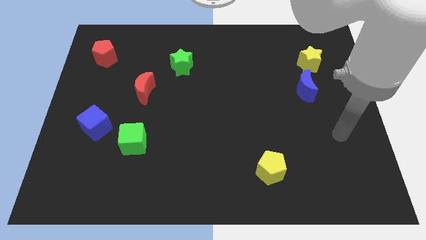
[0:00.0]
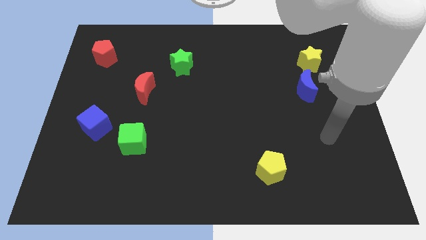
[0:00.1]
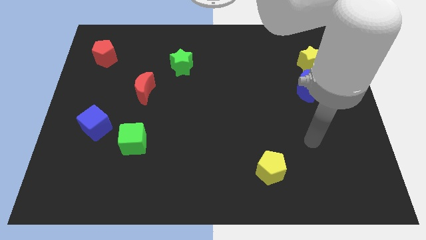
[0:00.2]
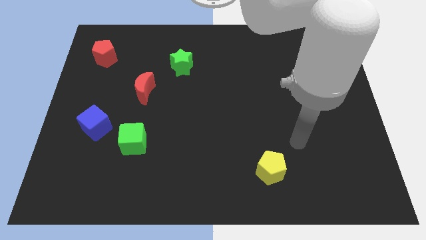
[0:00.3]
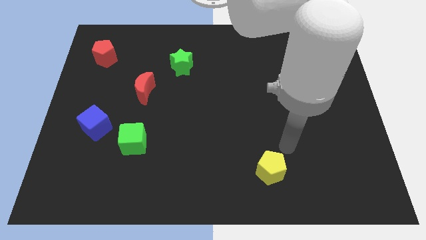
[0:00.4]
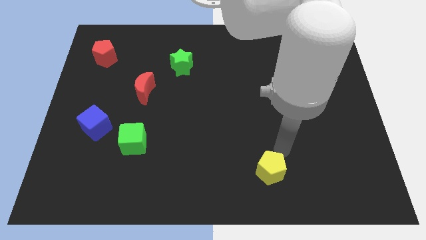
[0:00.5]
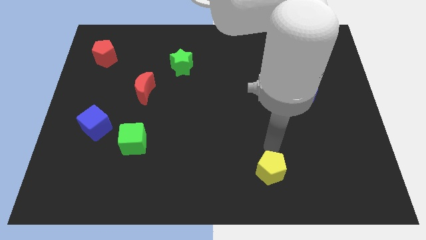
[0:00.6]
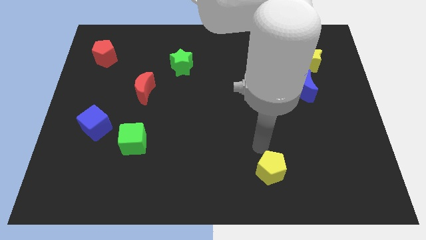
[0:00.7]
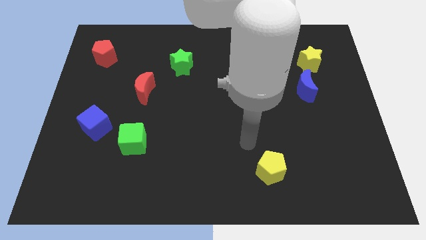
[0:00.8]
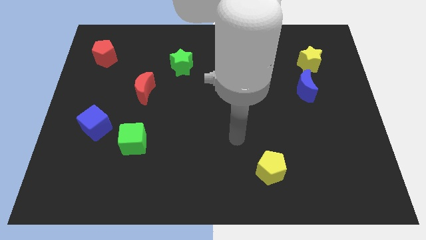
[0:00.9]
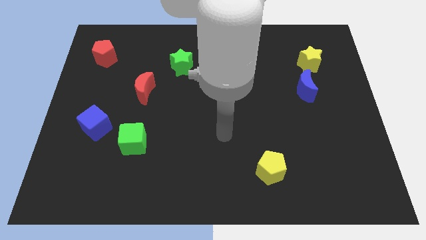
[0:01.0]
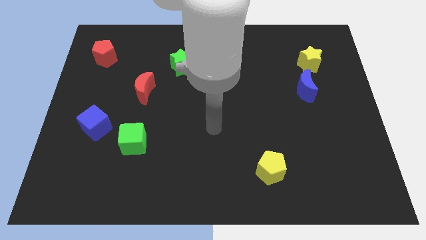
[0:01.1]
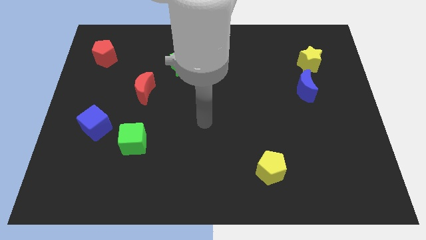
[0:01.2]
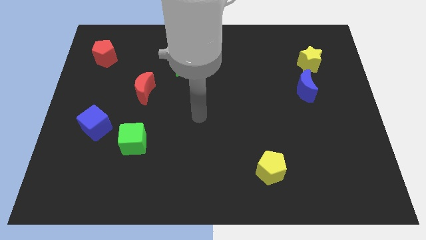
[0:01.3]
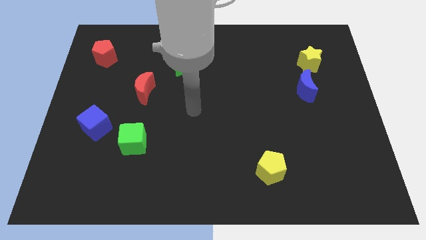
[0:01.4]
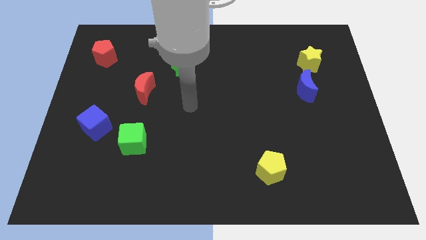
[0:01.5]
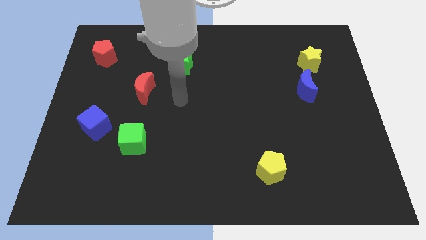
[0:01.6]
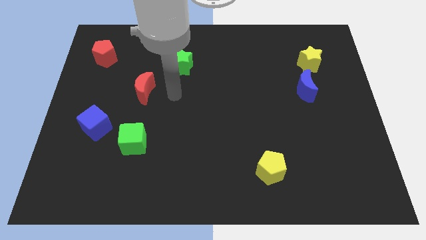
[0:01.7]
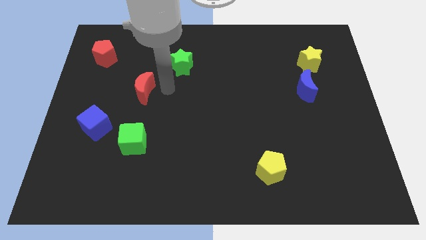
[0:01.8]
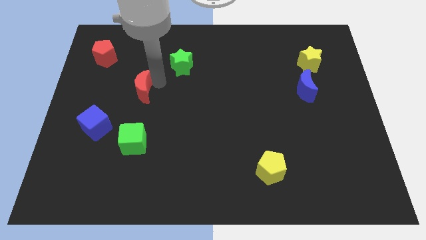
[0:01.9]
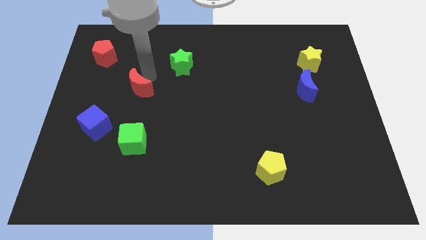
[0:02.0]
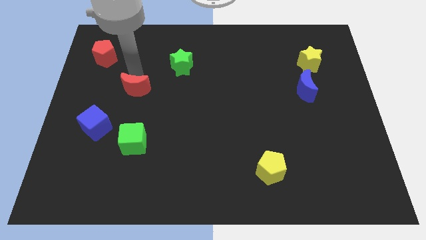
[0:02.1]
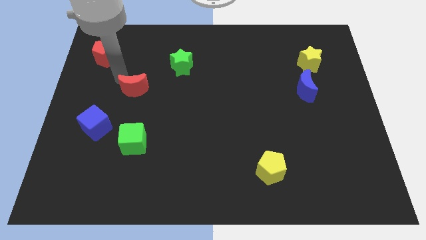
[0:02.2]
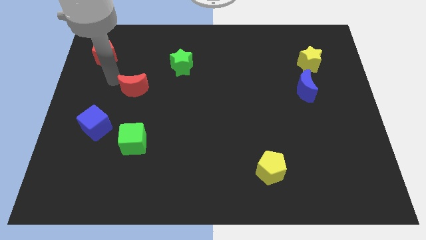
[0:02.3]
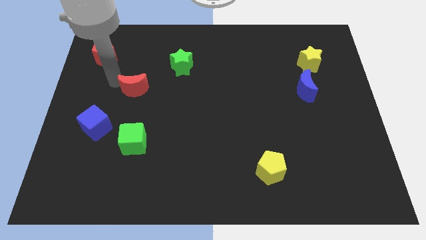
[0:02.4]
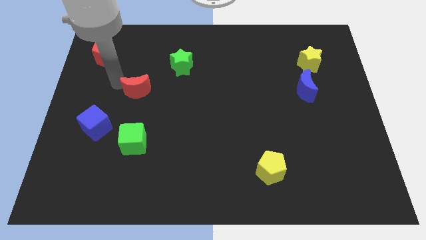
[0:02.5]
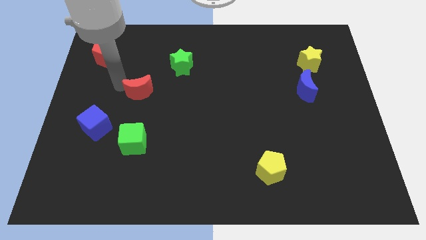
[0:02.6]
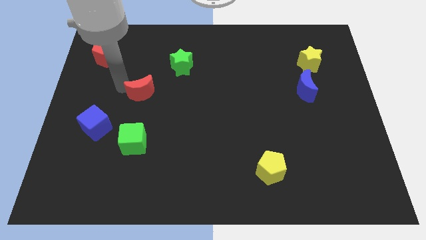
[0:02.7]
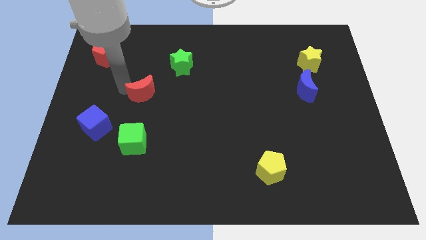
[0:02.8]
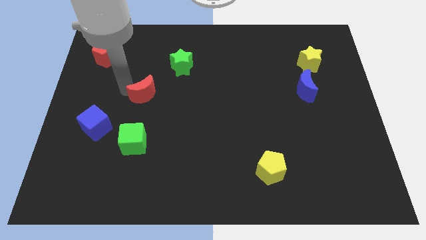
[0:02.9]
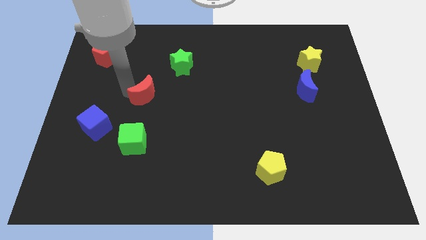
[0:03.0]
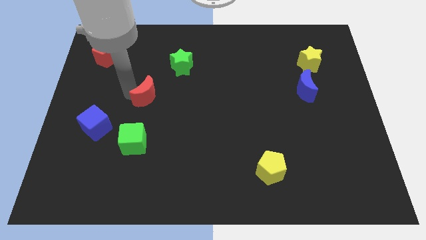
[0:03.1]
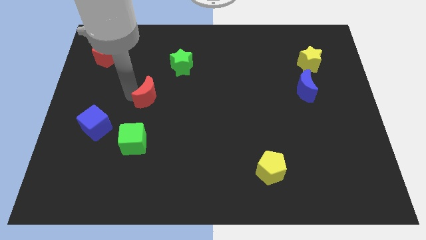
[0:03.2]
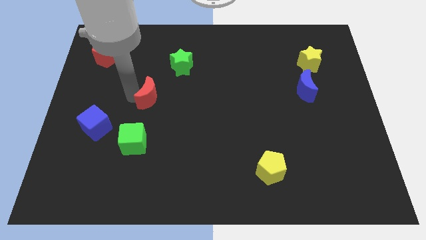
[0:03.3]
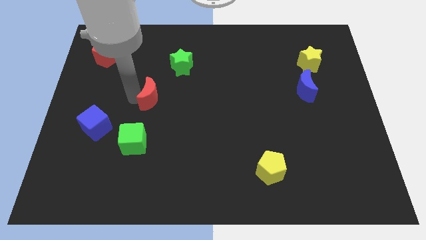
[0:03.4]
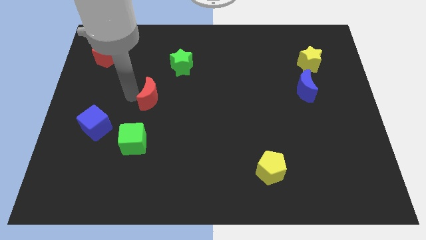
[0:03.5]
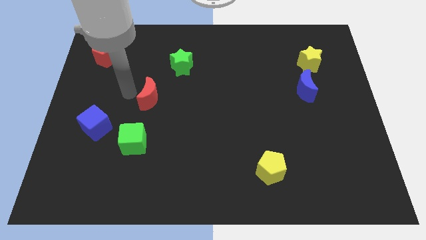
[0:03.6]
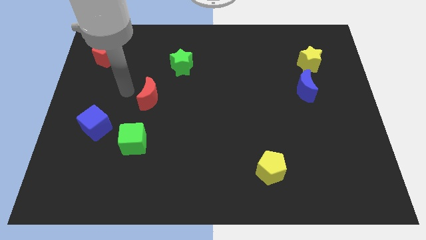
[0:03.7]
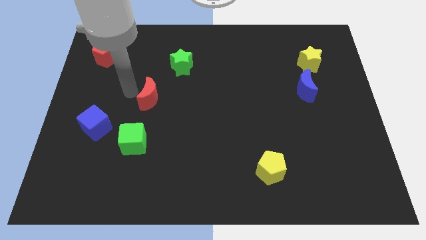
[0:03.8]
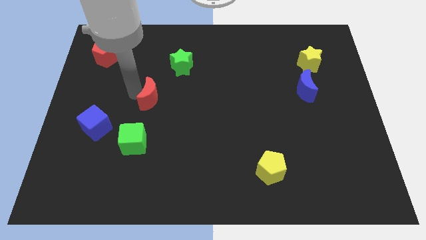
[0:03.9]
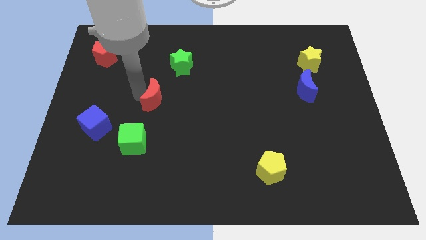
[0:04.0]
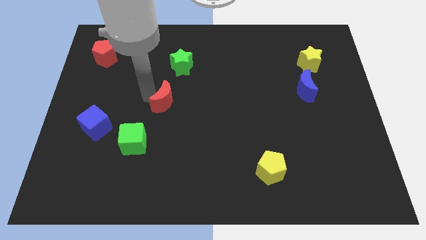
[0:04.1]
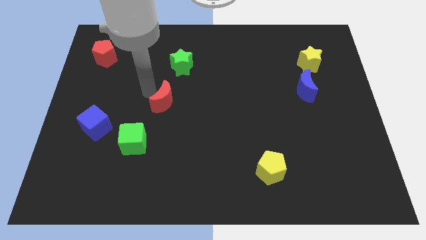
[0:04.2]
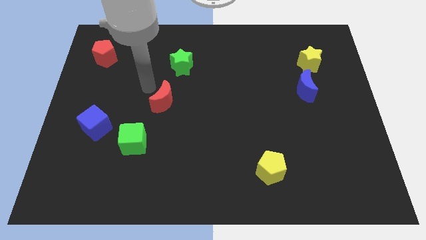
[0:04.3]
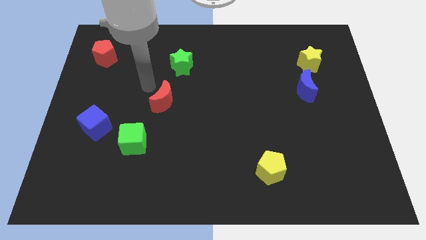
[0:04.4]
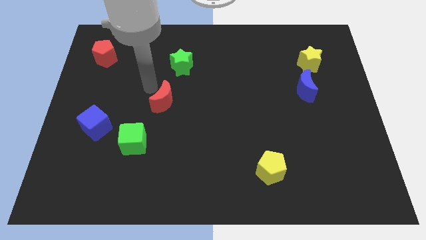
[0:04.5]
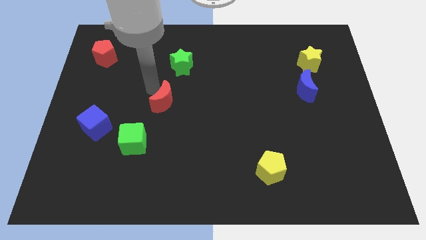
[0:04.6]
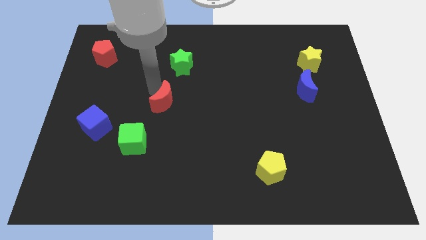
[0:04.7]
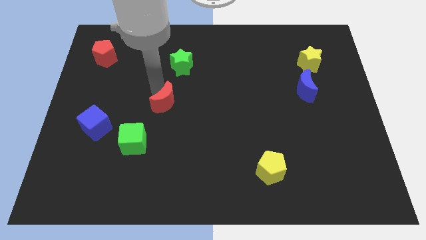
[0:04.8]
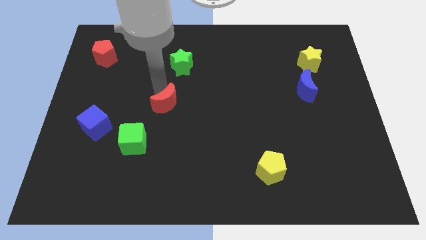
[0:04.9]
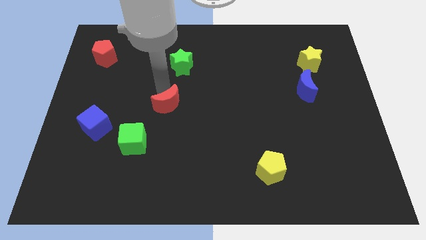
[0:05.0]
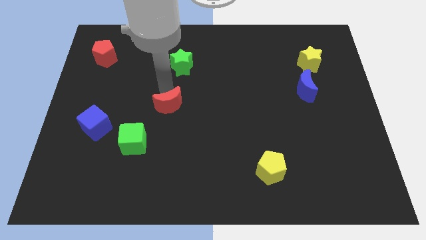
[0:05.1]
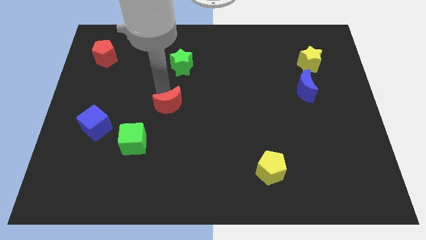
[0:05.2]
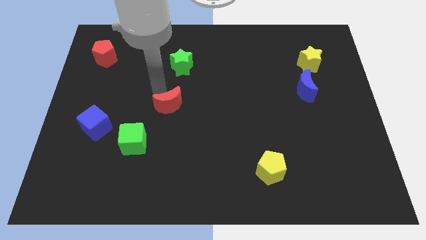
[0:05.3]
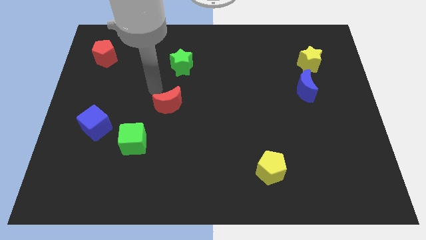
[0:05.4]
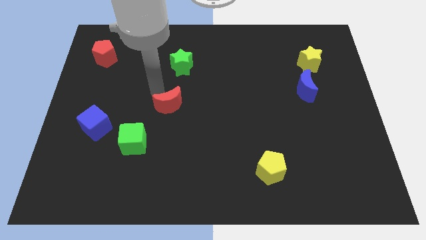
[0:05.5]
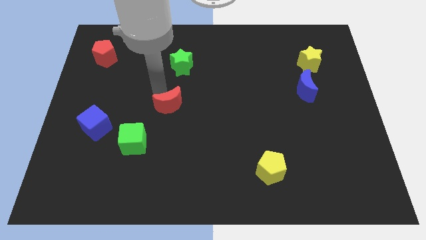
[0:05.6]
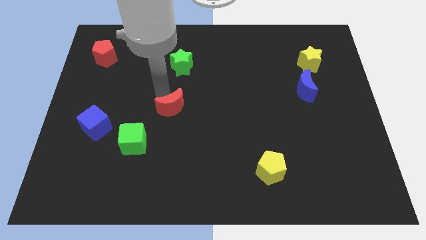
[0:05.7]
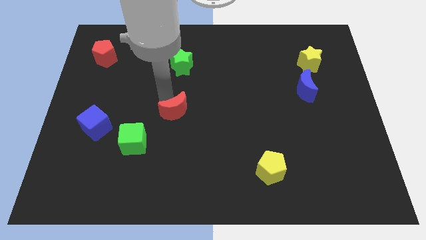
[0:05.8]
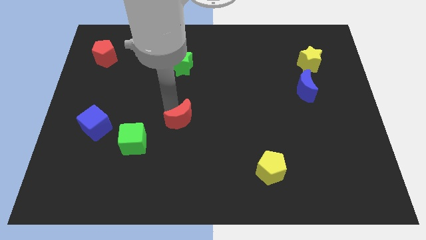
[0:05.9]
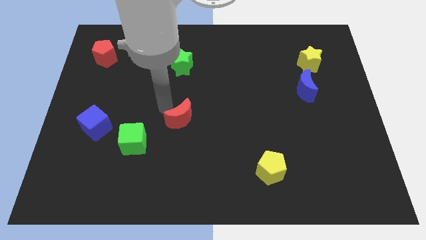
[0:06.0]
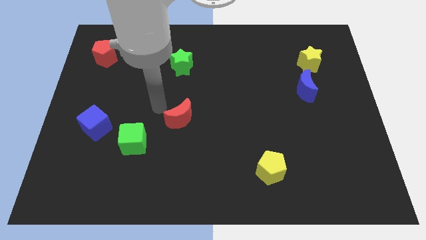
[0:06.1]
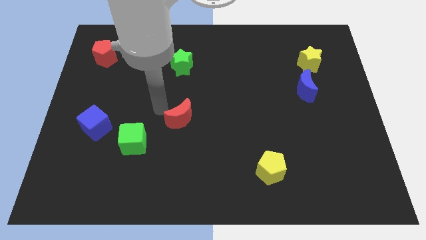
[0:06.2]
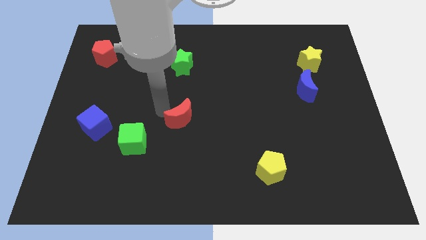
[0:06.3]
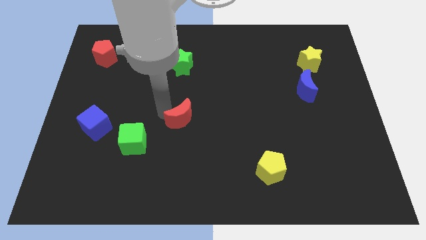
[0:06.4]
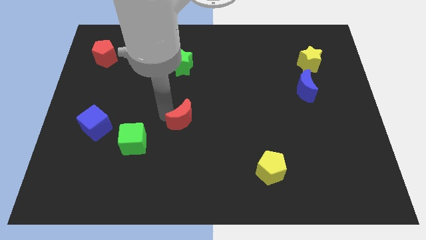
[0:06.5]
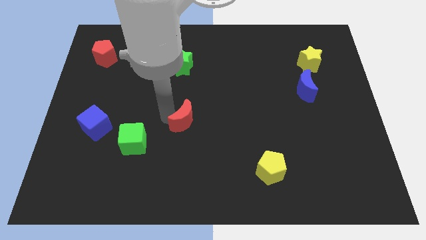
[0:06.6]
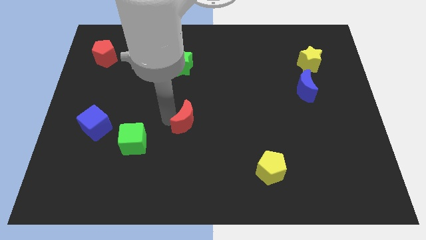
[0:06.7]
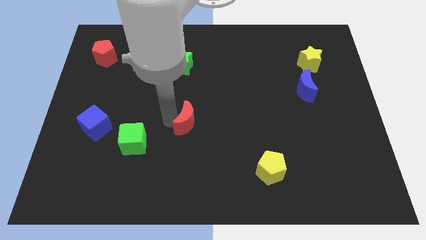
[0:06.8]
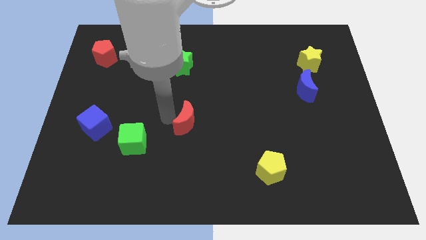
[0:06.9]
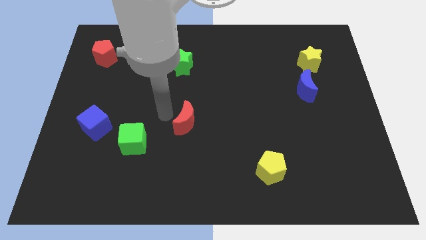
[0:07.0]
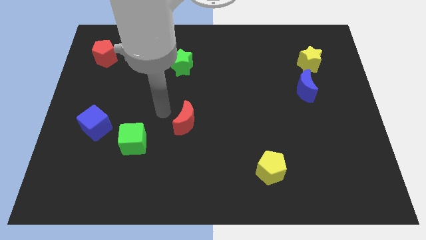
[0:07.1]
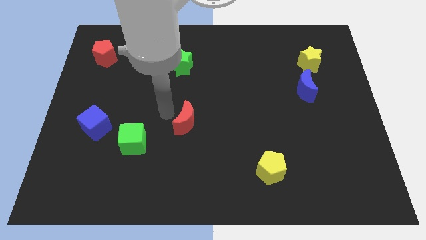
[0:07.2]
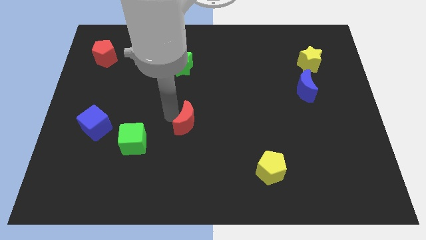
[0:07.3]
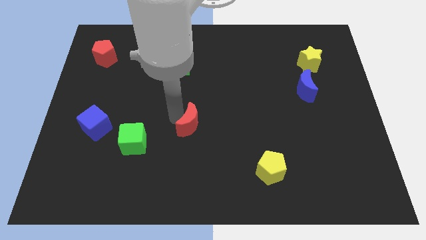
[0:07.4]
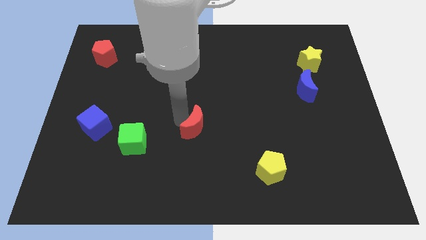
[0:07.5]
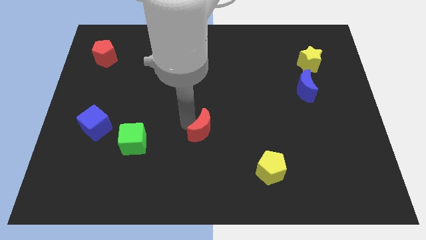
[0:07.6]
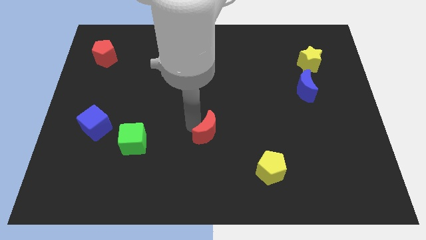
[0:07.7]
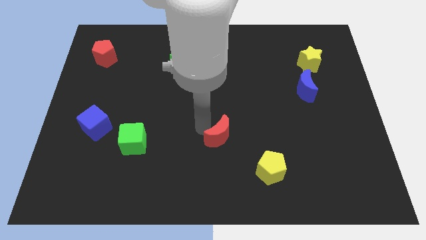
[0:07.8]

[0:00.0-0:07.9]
push the red moon downwards and then right
